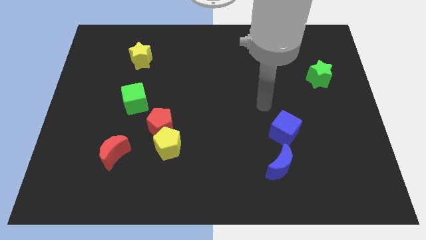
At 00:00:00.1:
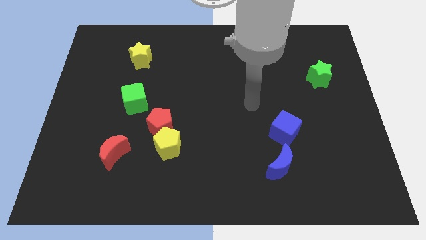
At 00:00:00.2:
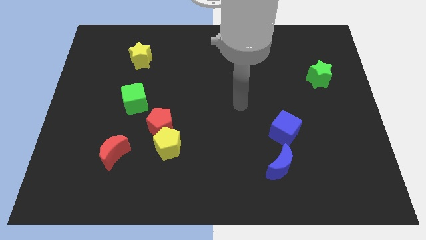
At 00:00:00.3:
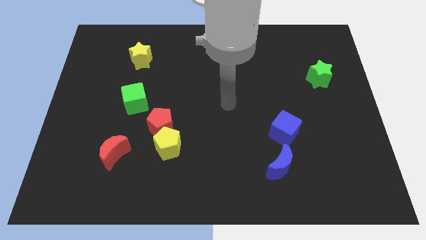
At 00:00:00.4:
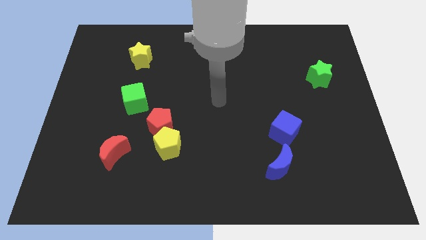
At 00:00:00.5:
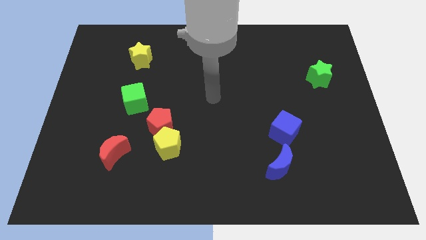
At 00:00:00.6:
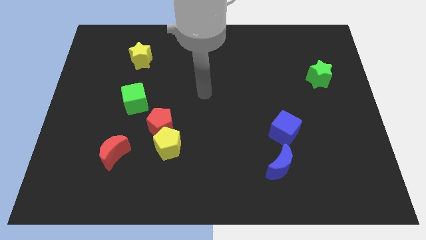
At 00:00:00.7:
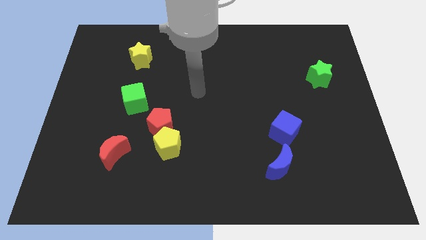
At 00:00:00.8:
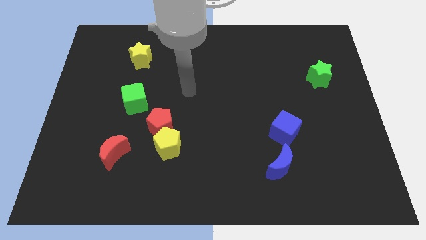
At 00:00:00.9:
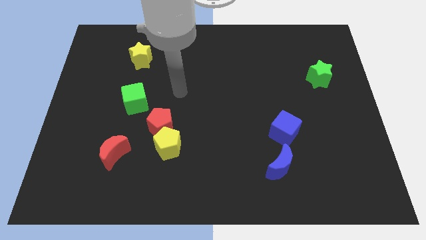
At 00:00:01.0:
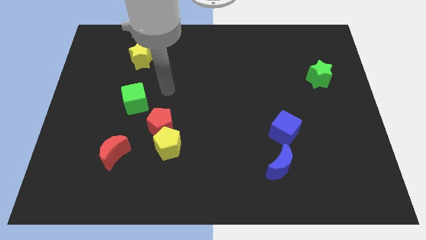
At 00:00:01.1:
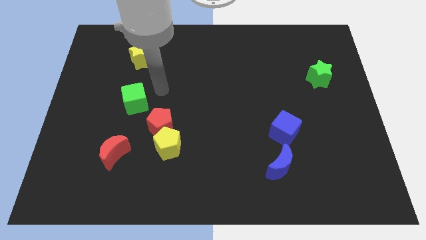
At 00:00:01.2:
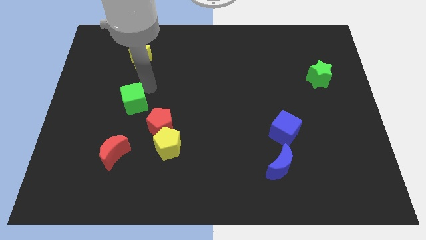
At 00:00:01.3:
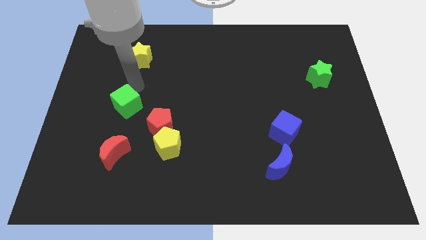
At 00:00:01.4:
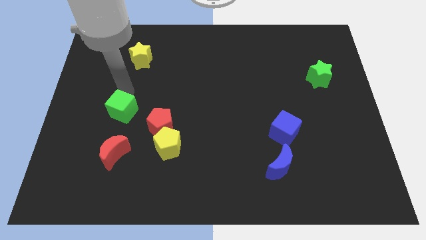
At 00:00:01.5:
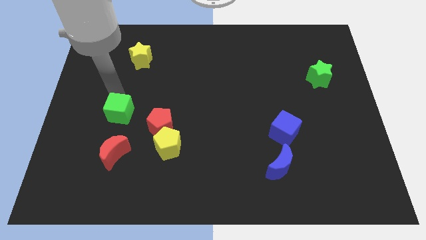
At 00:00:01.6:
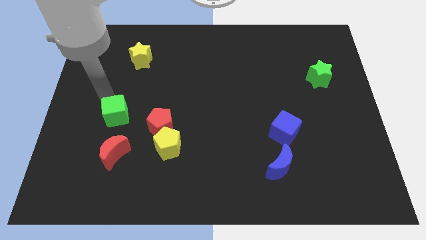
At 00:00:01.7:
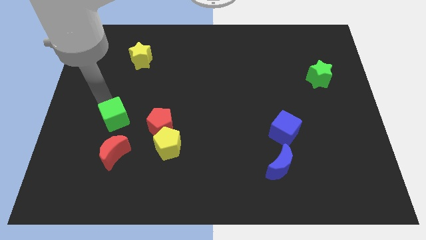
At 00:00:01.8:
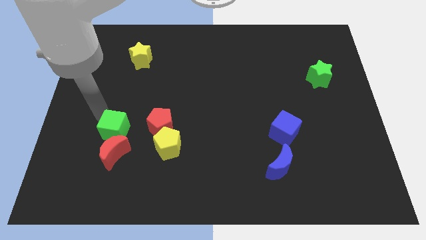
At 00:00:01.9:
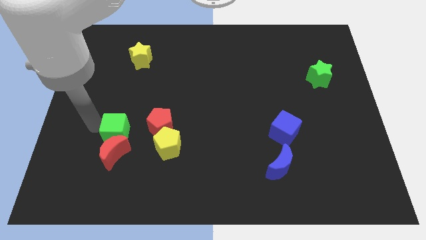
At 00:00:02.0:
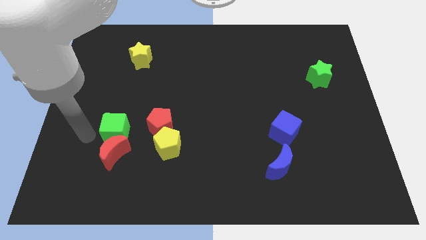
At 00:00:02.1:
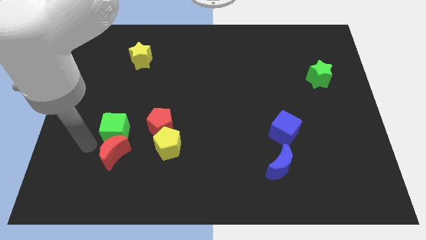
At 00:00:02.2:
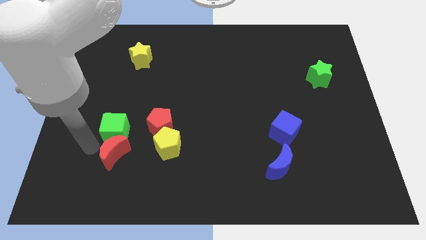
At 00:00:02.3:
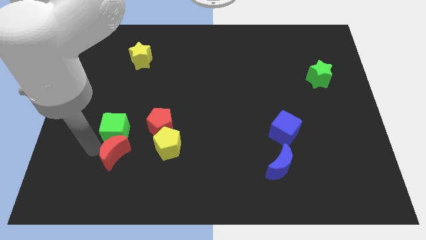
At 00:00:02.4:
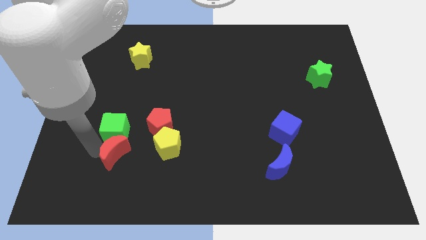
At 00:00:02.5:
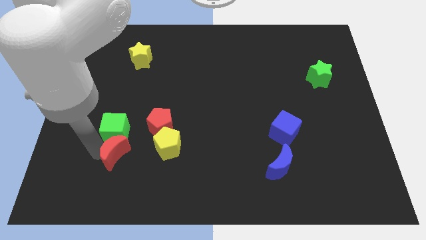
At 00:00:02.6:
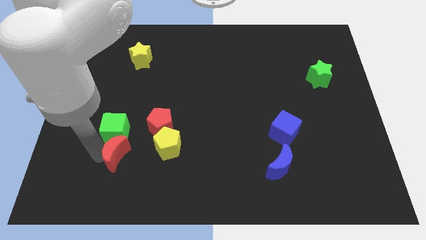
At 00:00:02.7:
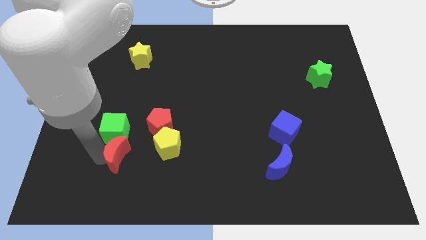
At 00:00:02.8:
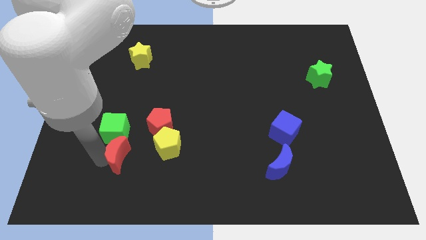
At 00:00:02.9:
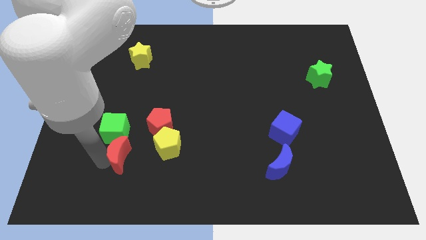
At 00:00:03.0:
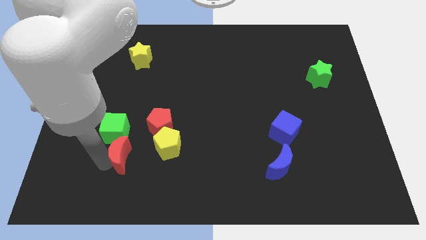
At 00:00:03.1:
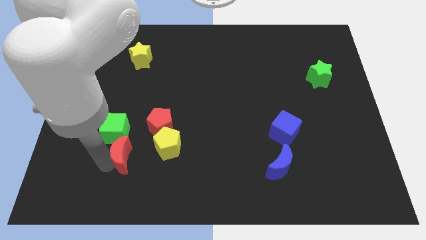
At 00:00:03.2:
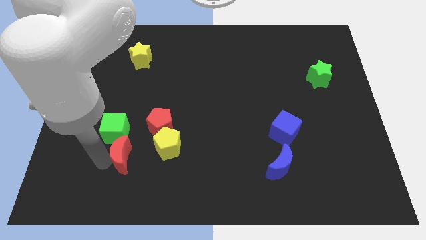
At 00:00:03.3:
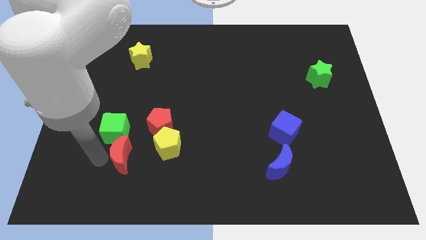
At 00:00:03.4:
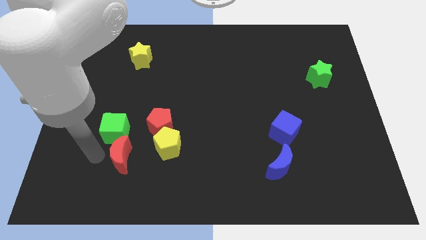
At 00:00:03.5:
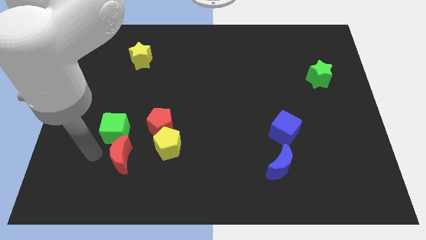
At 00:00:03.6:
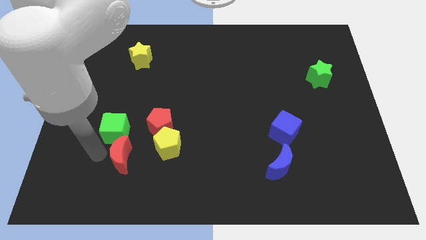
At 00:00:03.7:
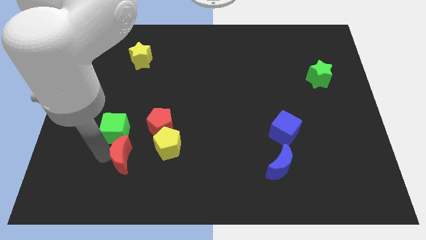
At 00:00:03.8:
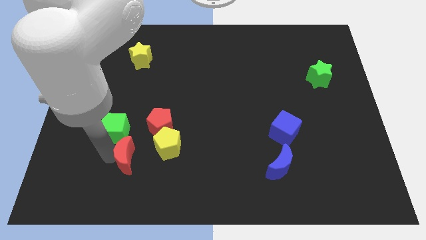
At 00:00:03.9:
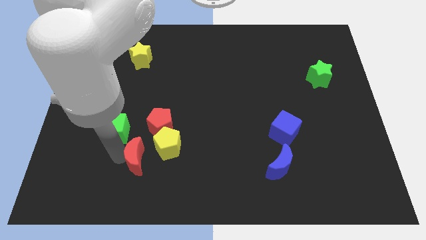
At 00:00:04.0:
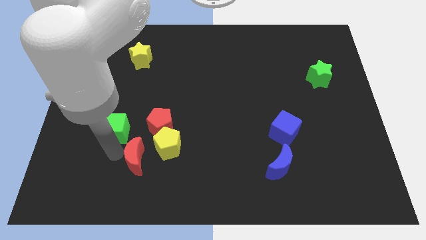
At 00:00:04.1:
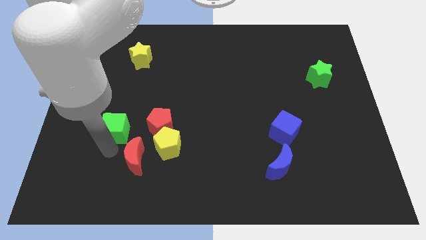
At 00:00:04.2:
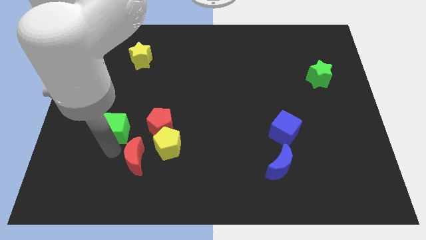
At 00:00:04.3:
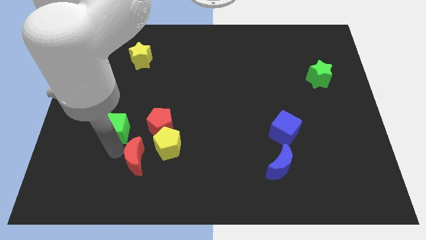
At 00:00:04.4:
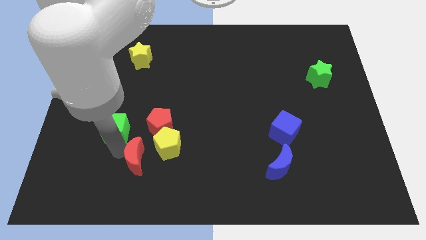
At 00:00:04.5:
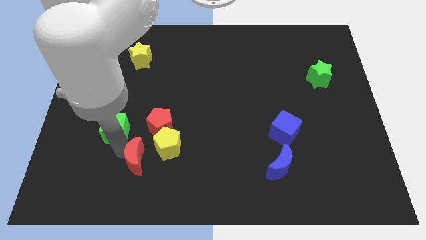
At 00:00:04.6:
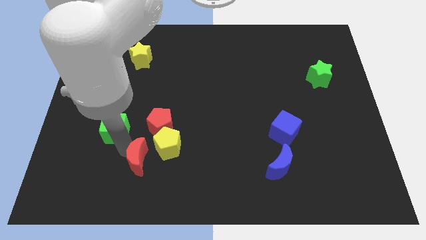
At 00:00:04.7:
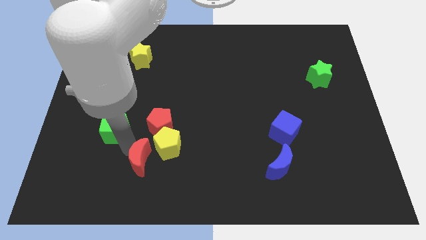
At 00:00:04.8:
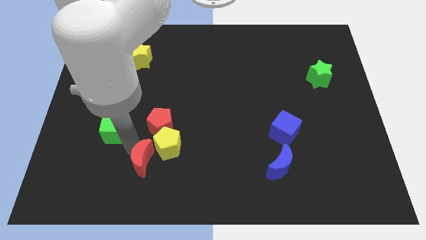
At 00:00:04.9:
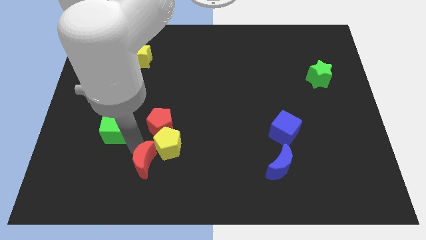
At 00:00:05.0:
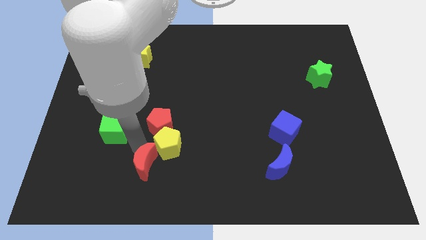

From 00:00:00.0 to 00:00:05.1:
move the red moon a bit to the right

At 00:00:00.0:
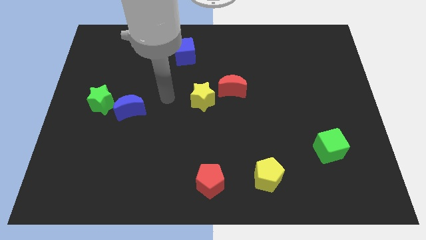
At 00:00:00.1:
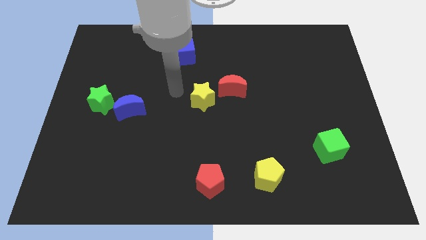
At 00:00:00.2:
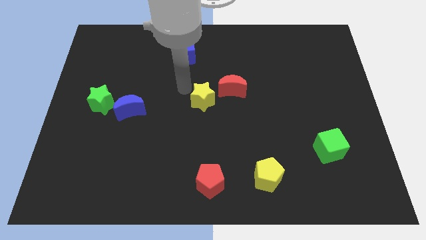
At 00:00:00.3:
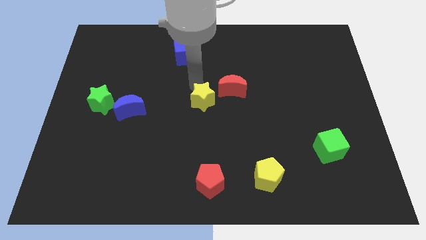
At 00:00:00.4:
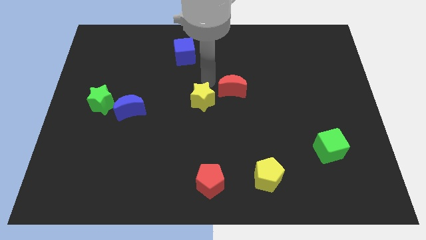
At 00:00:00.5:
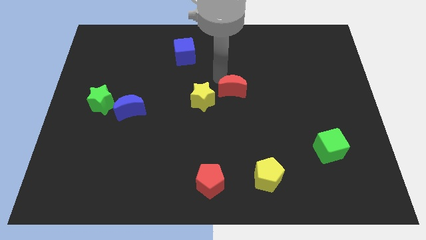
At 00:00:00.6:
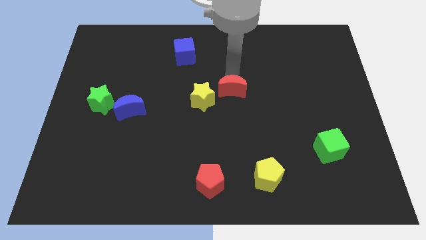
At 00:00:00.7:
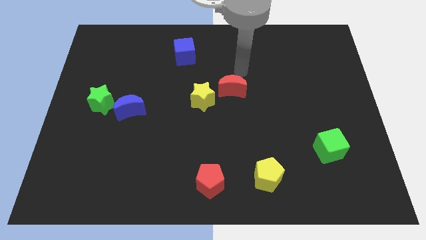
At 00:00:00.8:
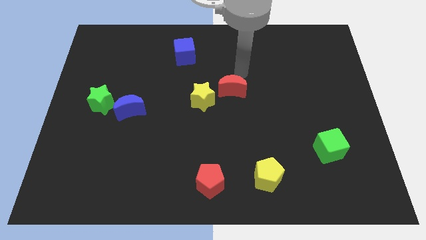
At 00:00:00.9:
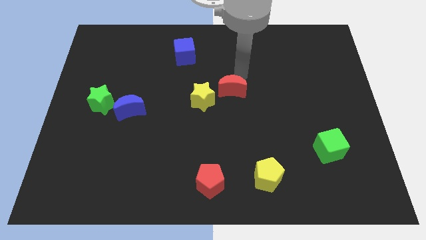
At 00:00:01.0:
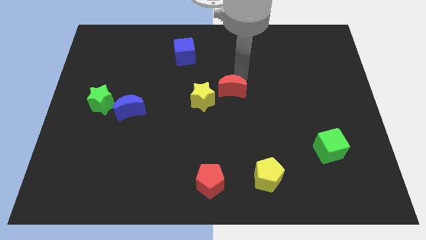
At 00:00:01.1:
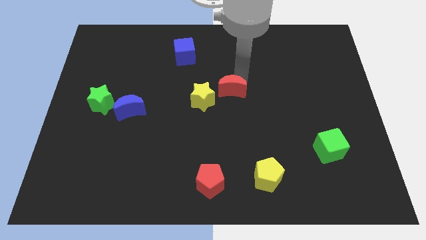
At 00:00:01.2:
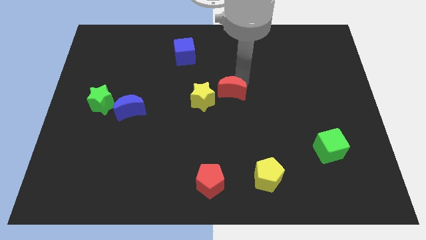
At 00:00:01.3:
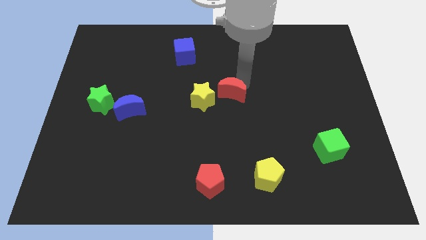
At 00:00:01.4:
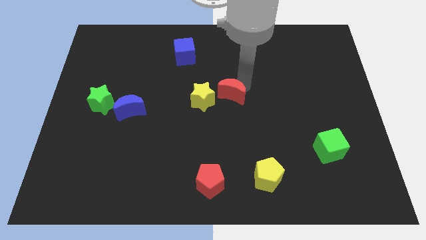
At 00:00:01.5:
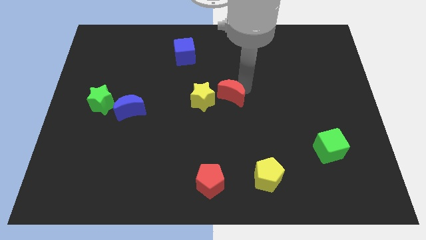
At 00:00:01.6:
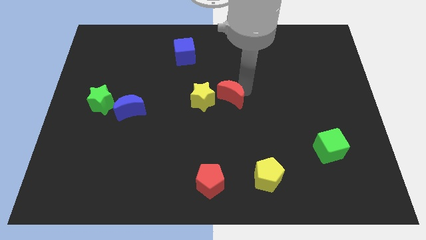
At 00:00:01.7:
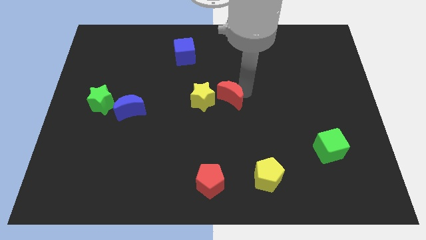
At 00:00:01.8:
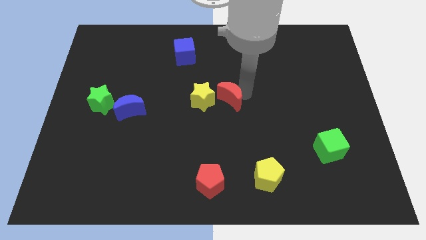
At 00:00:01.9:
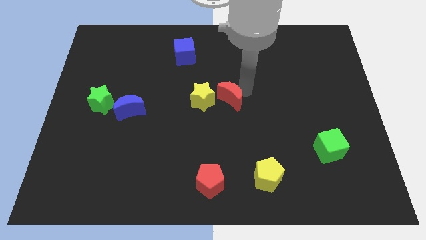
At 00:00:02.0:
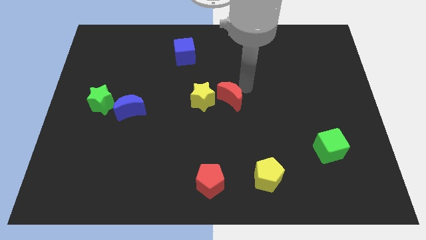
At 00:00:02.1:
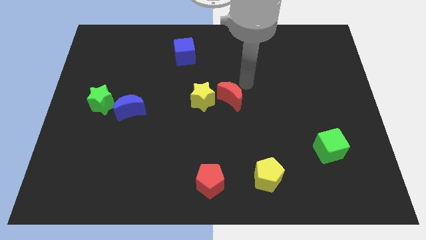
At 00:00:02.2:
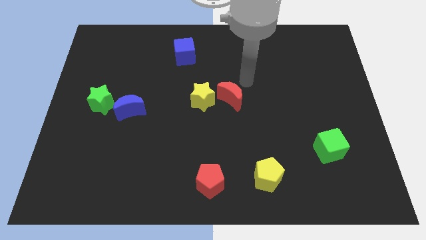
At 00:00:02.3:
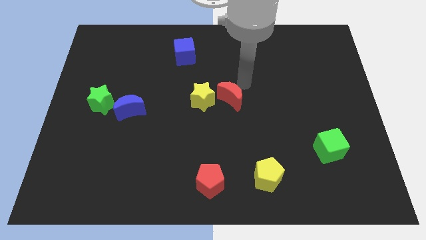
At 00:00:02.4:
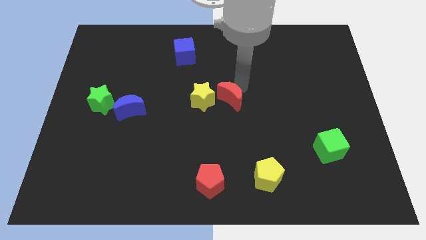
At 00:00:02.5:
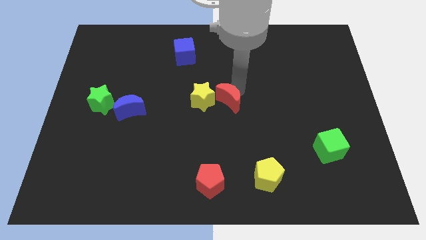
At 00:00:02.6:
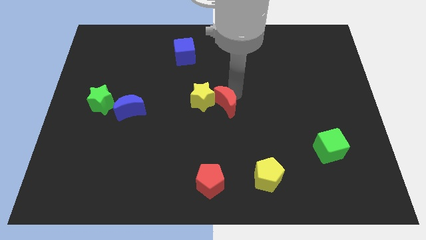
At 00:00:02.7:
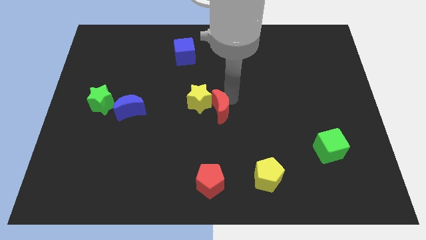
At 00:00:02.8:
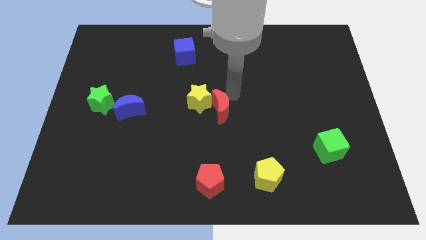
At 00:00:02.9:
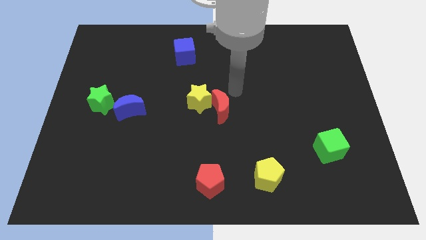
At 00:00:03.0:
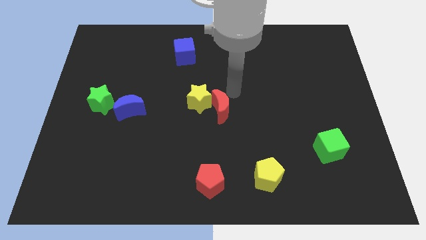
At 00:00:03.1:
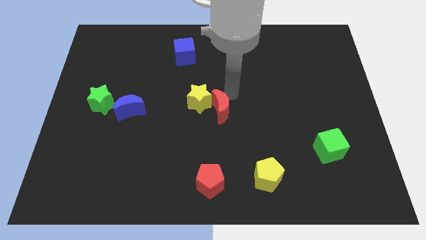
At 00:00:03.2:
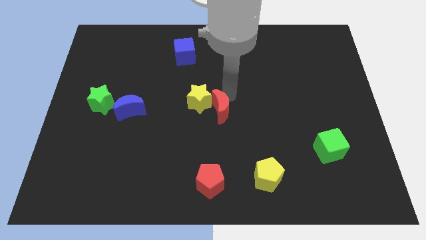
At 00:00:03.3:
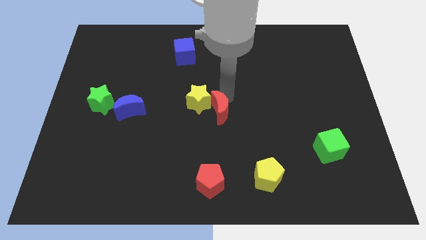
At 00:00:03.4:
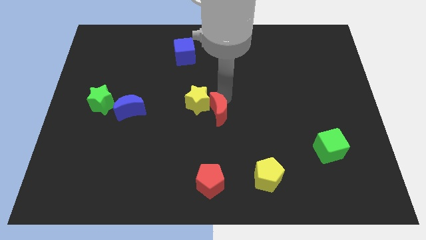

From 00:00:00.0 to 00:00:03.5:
slightly push the red moon downwards and then left
